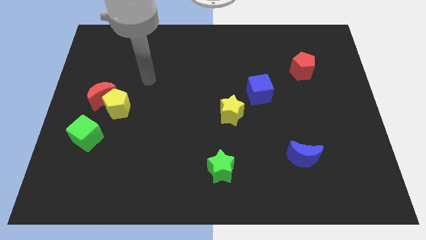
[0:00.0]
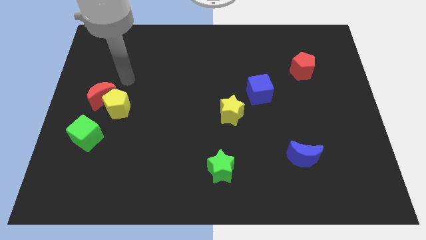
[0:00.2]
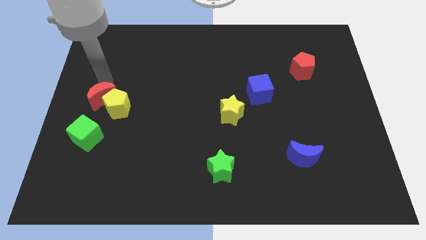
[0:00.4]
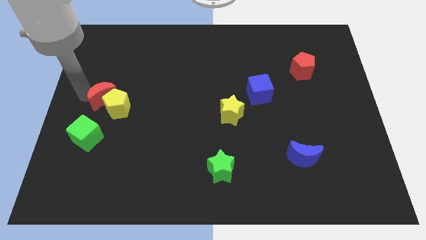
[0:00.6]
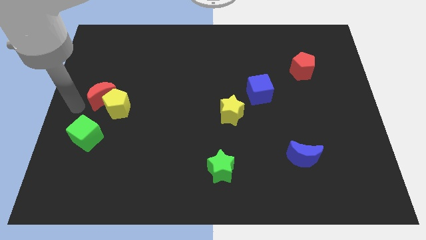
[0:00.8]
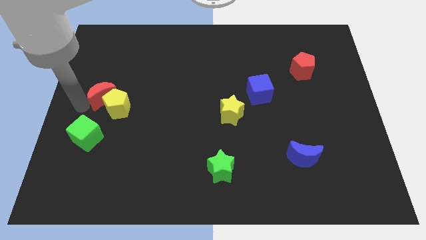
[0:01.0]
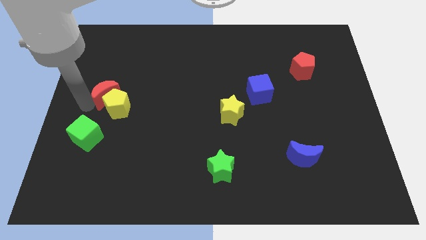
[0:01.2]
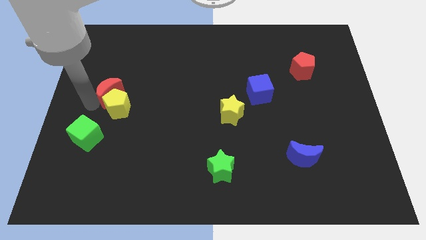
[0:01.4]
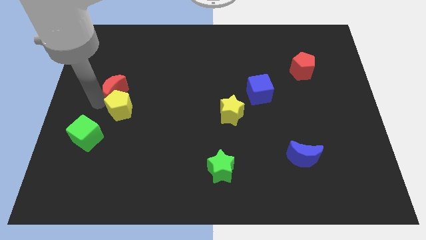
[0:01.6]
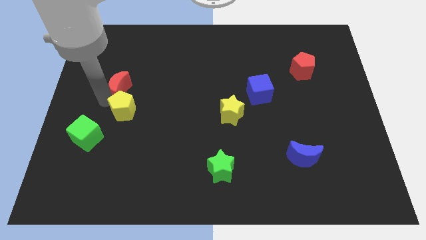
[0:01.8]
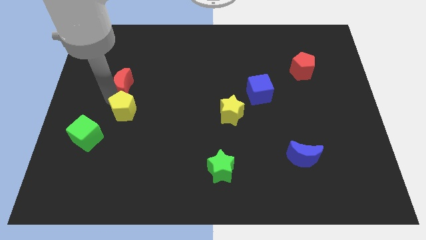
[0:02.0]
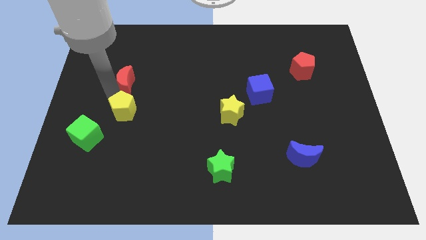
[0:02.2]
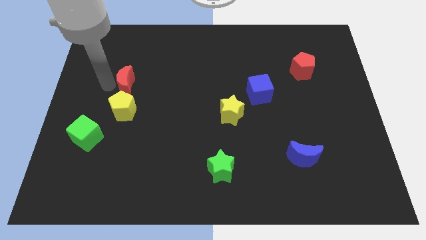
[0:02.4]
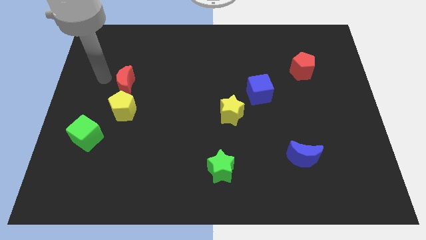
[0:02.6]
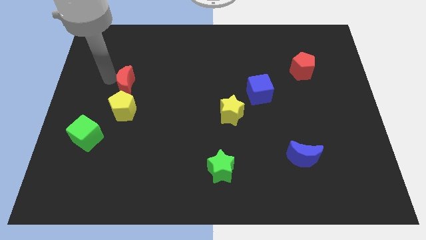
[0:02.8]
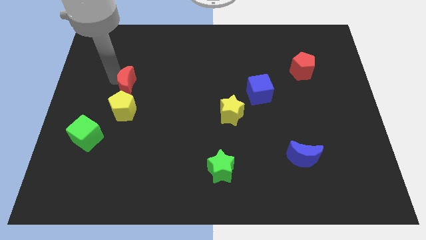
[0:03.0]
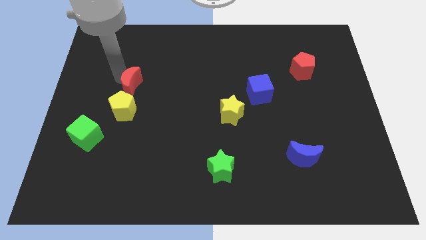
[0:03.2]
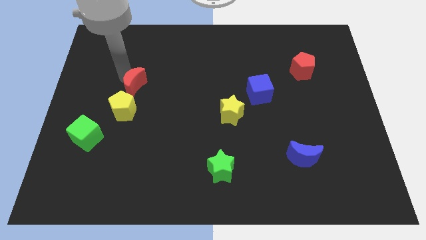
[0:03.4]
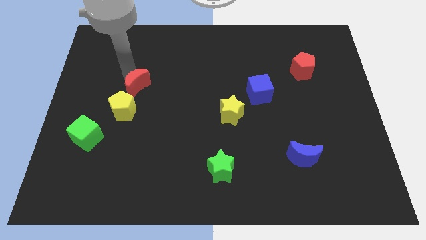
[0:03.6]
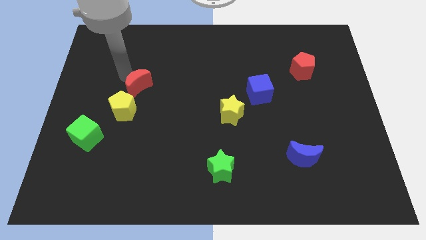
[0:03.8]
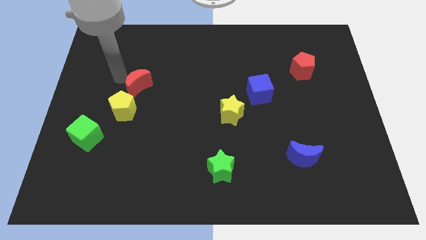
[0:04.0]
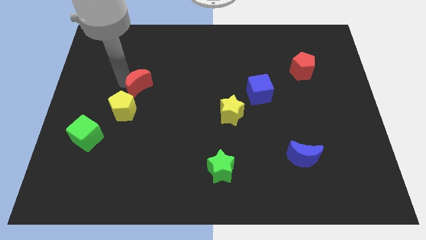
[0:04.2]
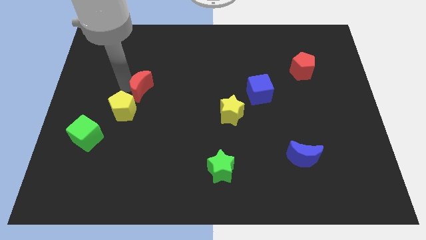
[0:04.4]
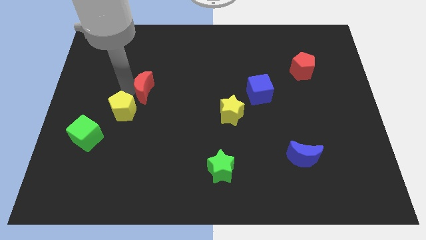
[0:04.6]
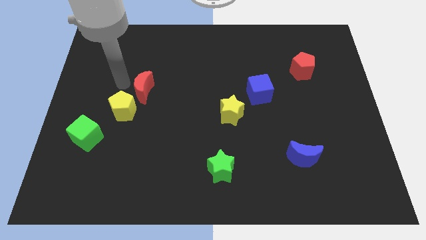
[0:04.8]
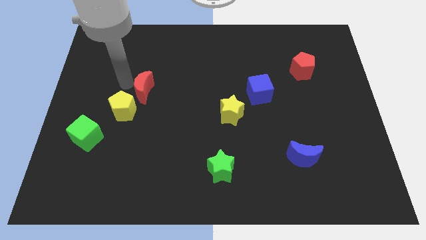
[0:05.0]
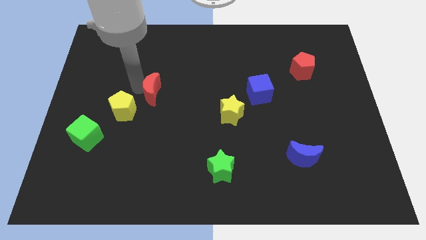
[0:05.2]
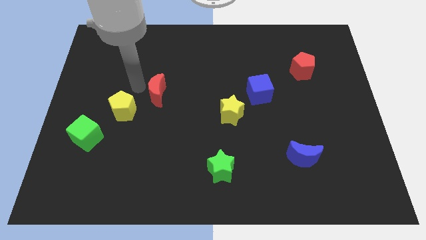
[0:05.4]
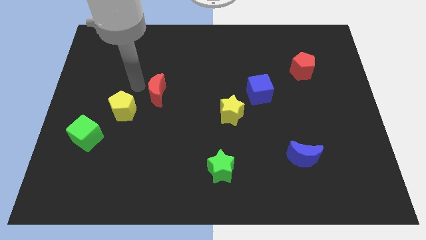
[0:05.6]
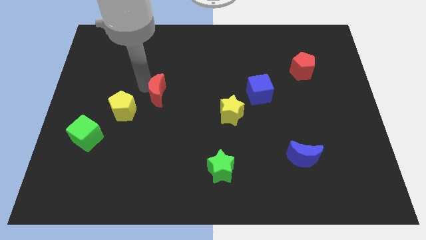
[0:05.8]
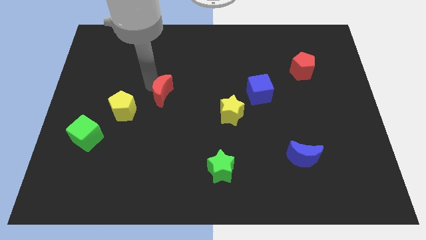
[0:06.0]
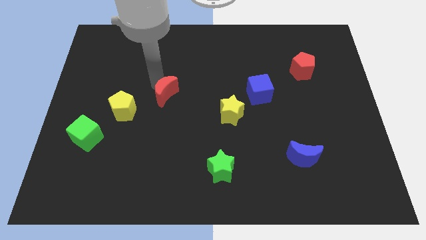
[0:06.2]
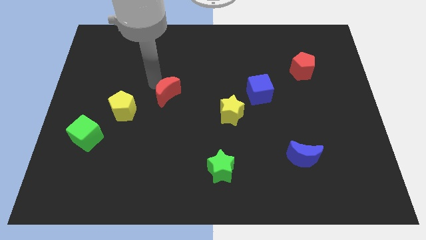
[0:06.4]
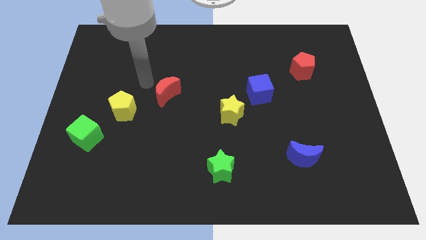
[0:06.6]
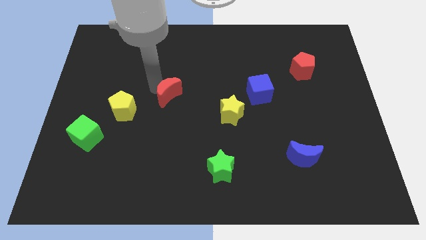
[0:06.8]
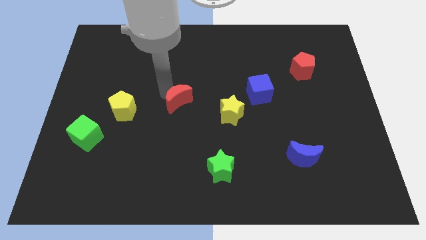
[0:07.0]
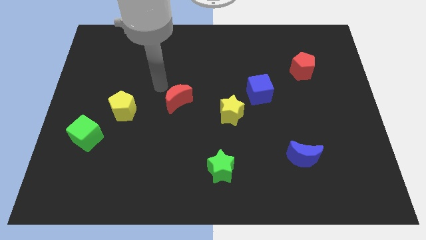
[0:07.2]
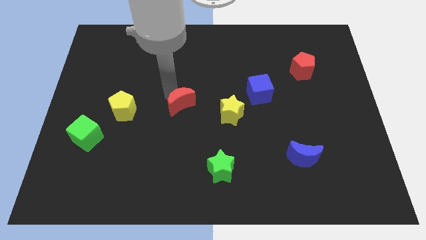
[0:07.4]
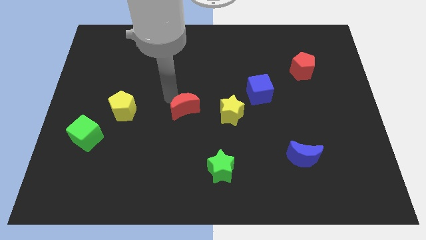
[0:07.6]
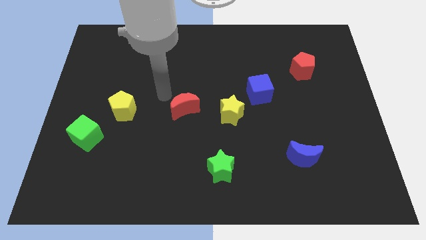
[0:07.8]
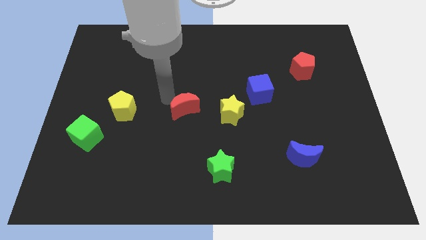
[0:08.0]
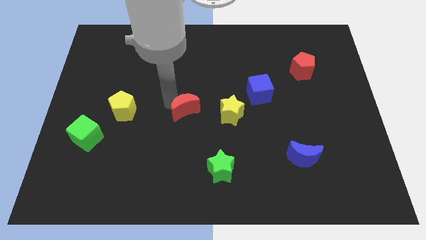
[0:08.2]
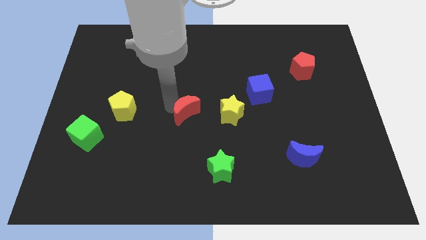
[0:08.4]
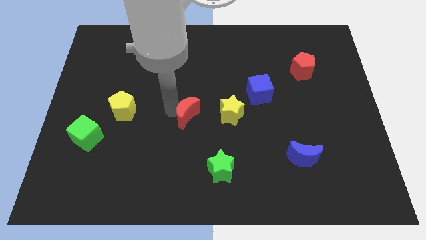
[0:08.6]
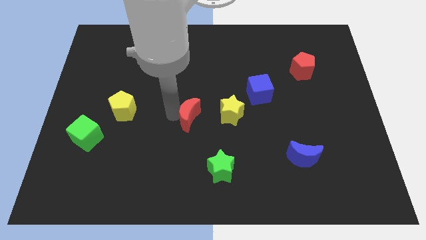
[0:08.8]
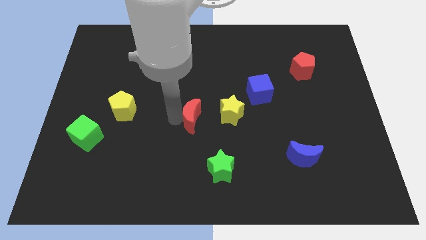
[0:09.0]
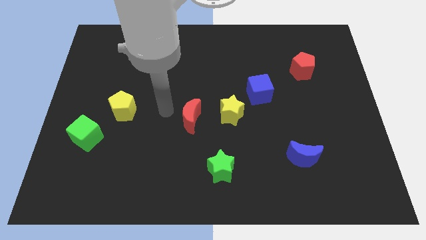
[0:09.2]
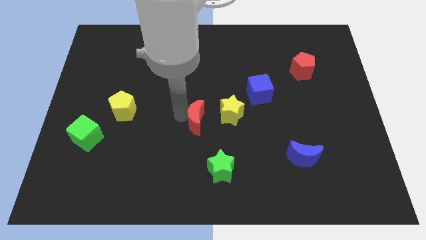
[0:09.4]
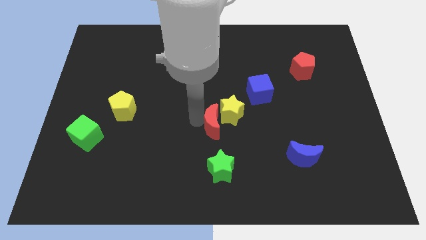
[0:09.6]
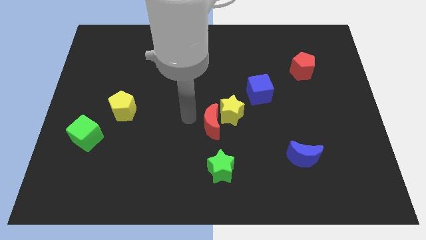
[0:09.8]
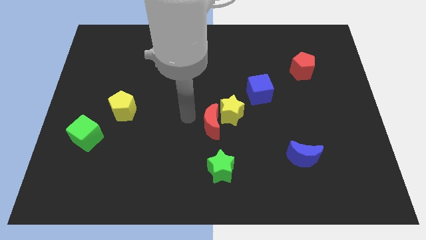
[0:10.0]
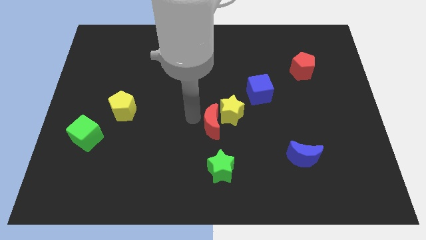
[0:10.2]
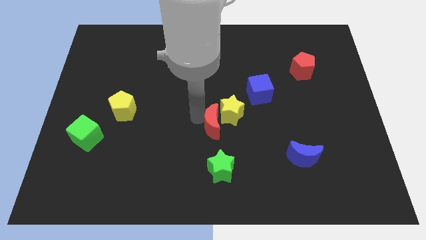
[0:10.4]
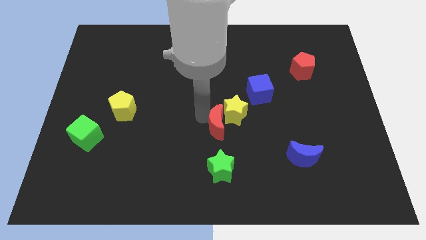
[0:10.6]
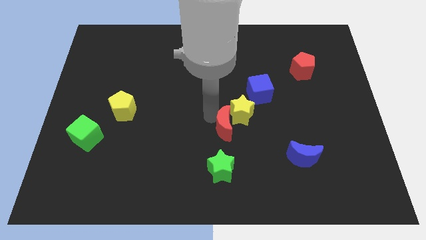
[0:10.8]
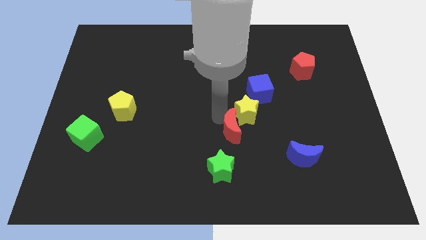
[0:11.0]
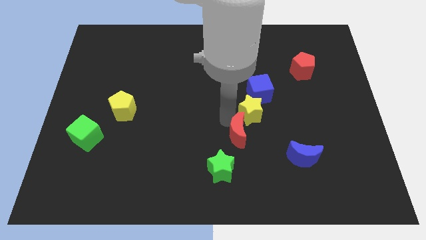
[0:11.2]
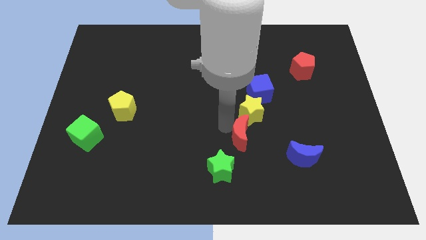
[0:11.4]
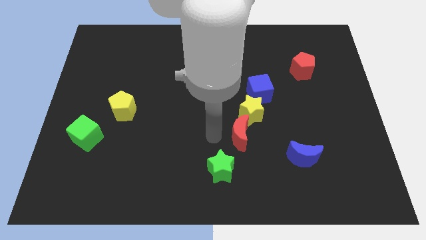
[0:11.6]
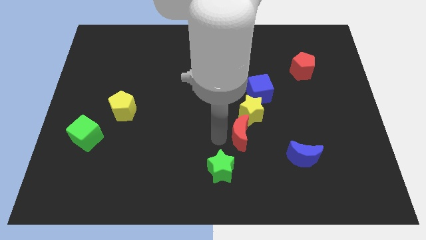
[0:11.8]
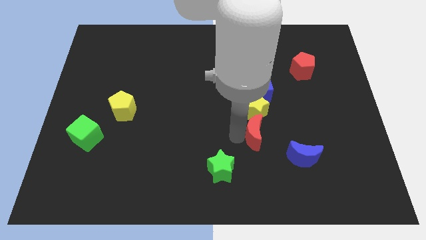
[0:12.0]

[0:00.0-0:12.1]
slide the red moon to the bottom right of the yellow star

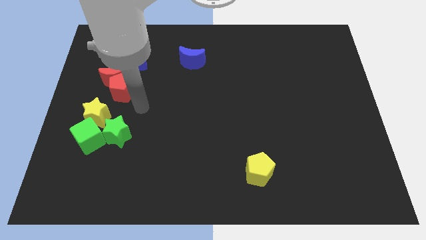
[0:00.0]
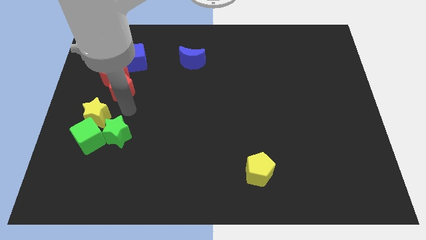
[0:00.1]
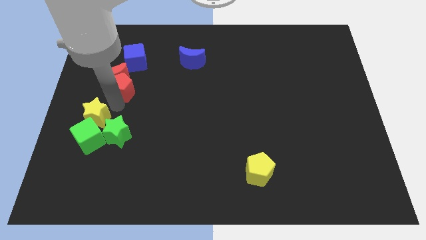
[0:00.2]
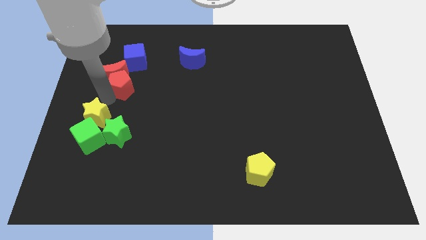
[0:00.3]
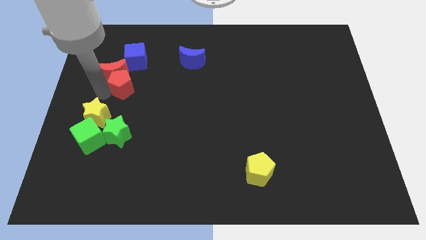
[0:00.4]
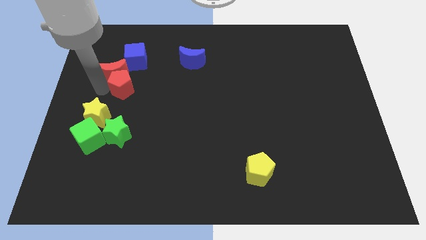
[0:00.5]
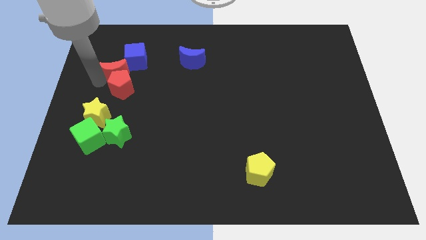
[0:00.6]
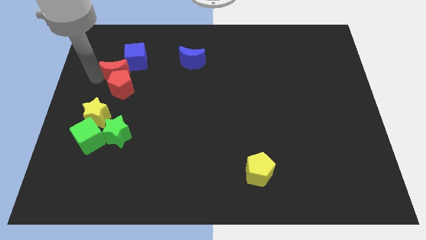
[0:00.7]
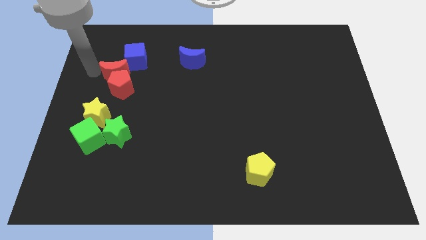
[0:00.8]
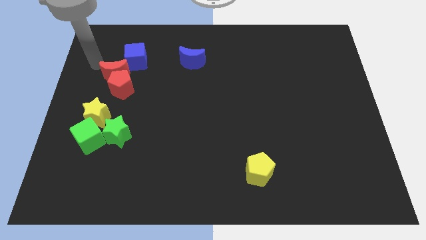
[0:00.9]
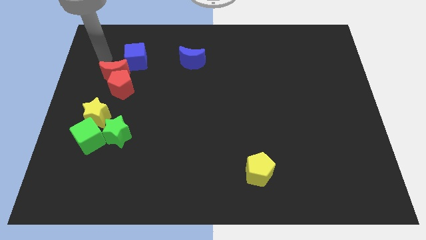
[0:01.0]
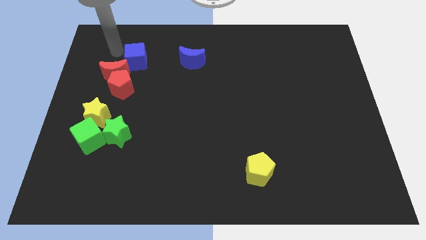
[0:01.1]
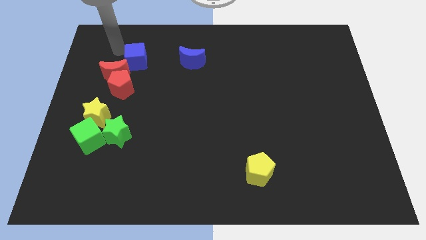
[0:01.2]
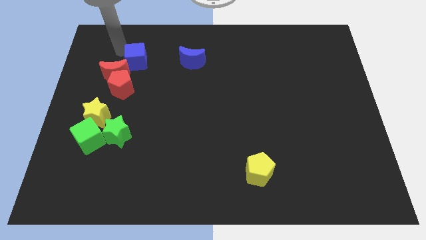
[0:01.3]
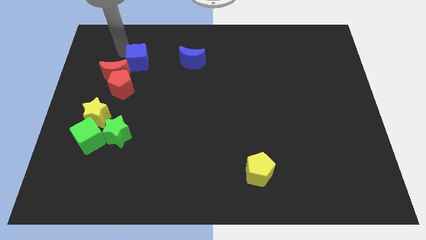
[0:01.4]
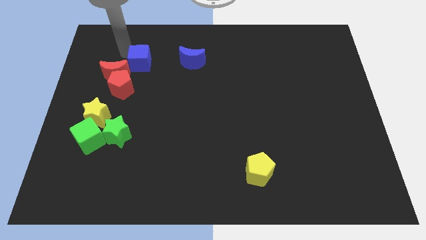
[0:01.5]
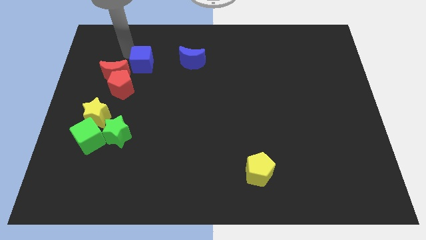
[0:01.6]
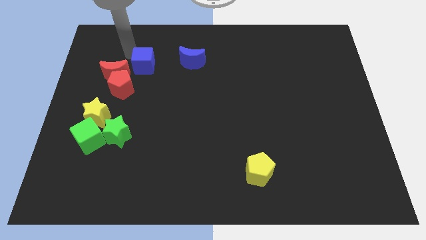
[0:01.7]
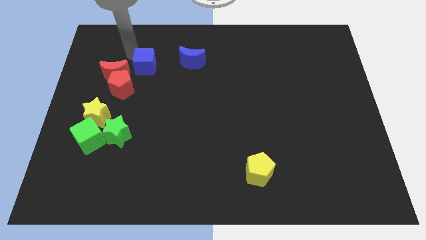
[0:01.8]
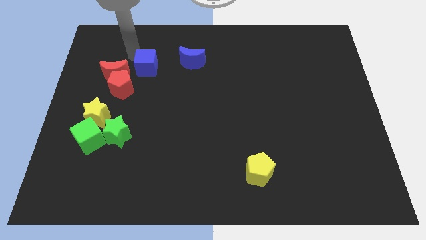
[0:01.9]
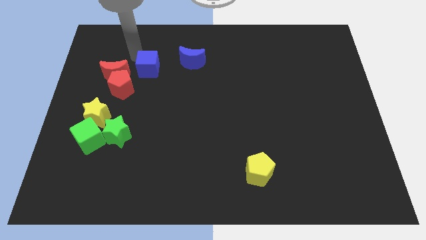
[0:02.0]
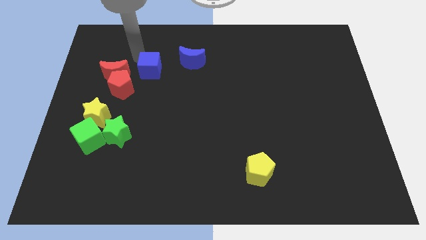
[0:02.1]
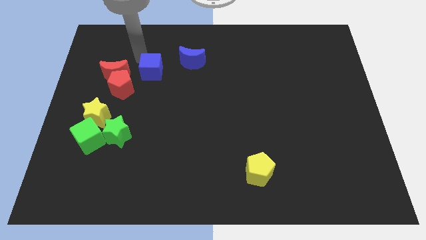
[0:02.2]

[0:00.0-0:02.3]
put the blue cube to the bottom left of the blue moon
